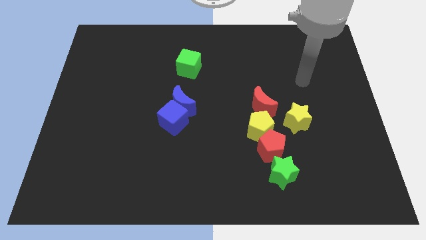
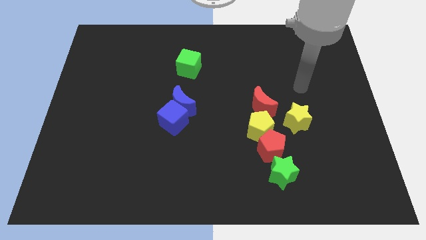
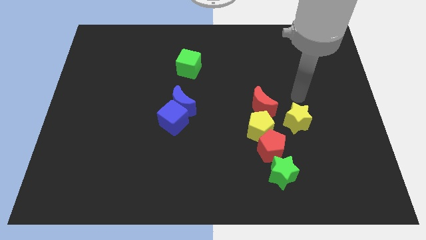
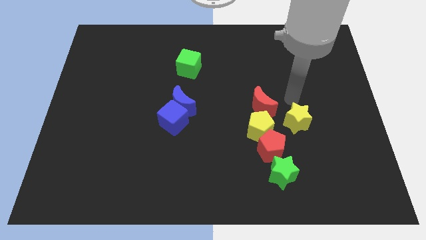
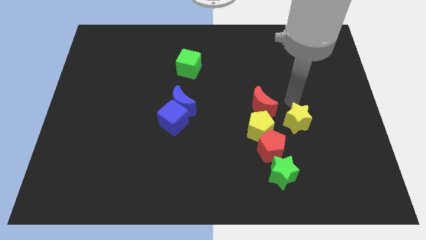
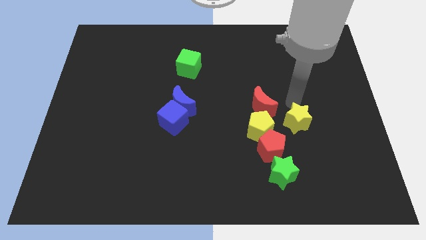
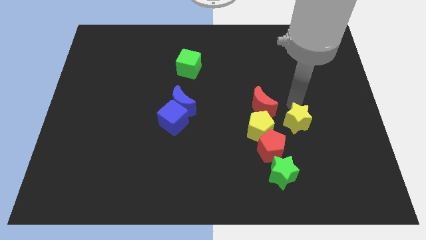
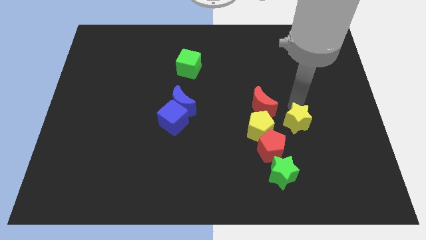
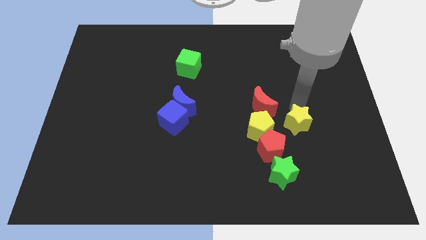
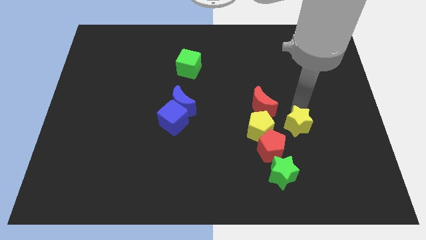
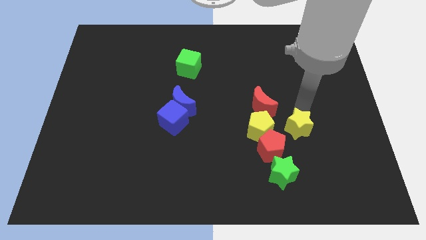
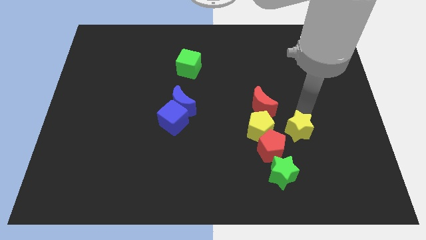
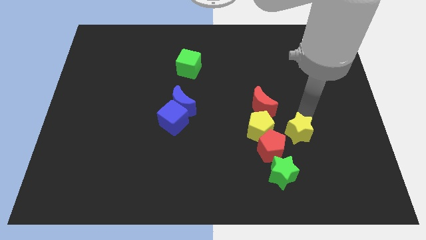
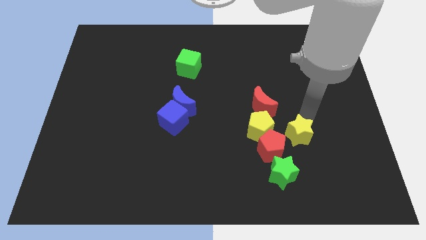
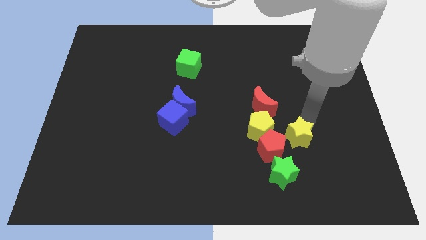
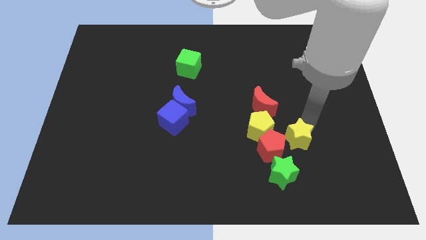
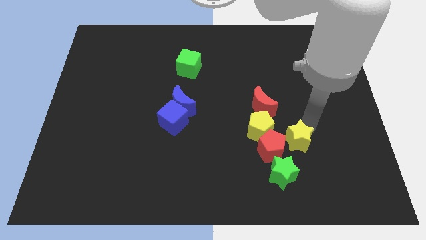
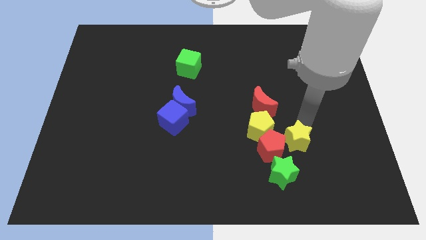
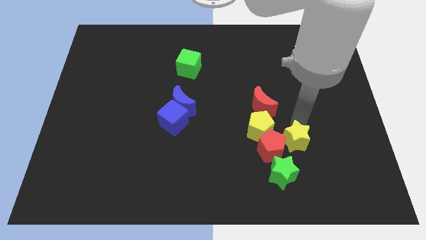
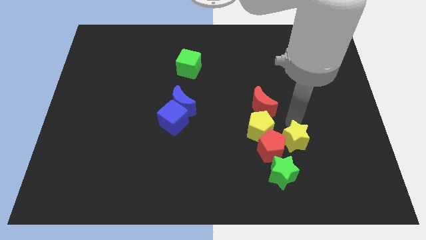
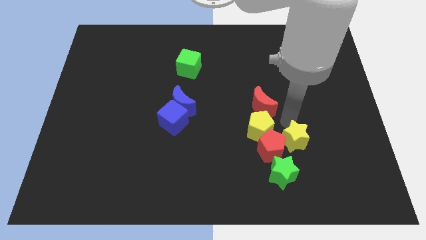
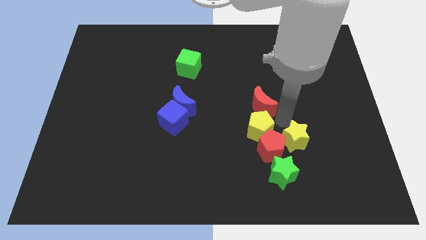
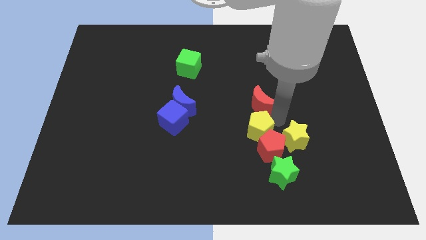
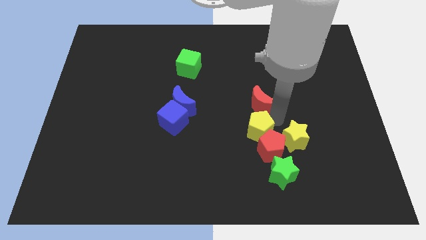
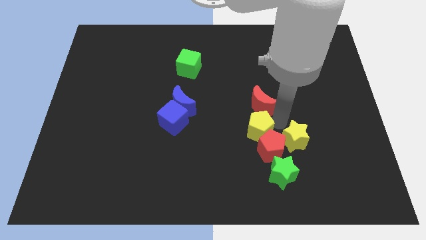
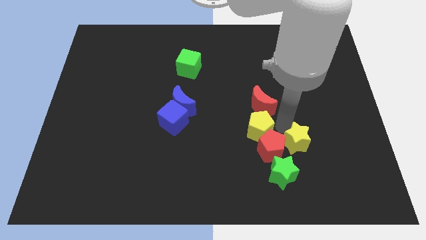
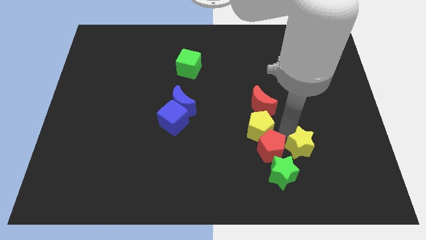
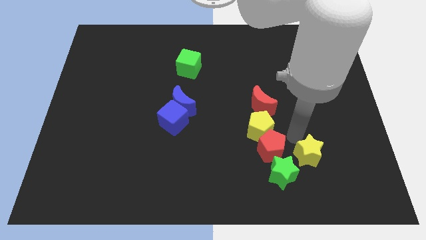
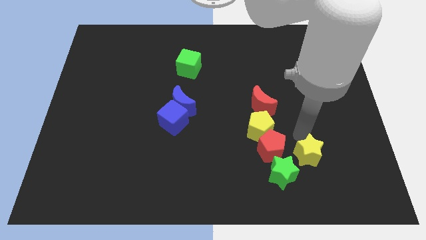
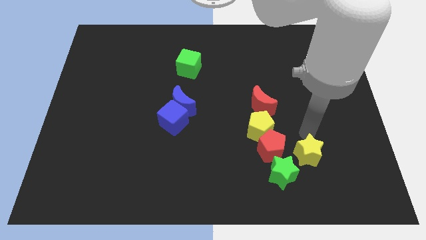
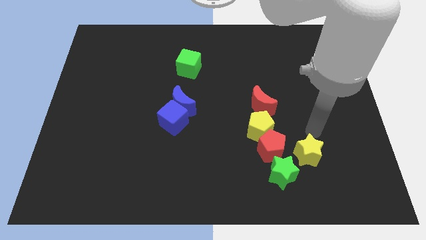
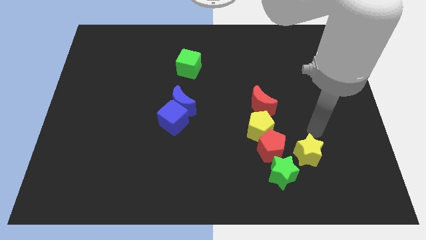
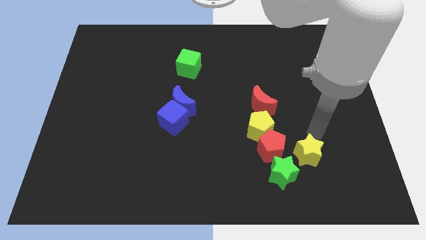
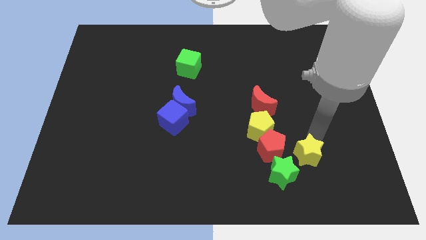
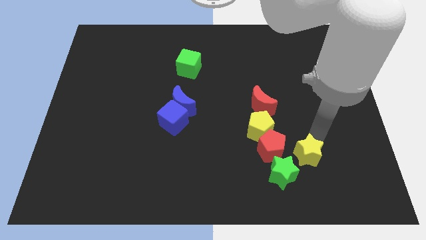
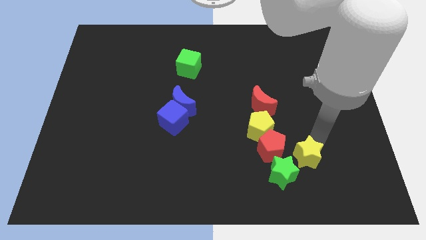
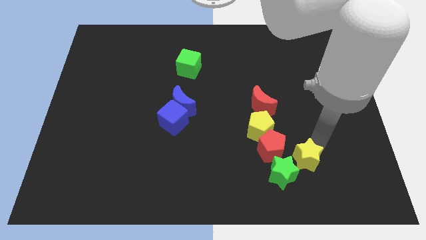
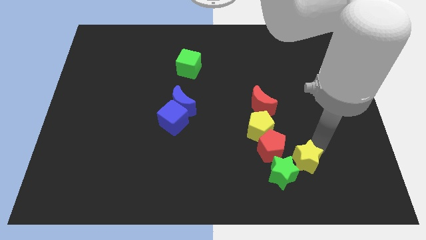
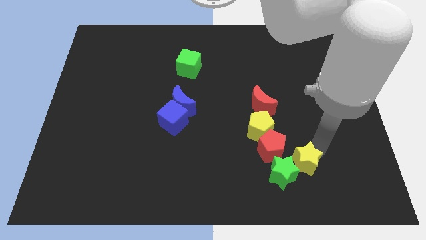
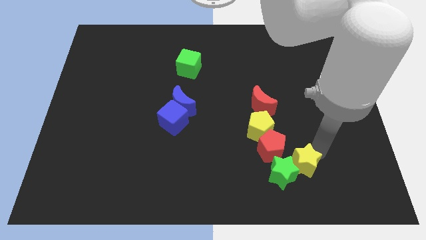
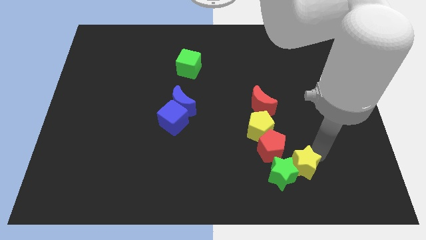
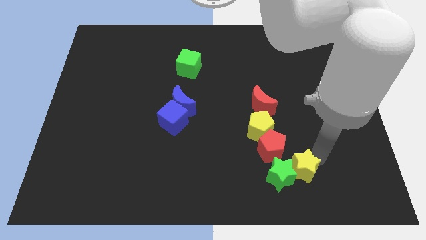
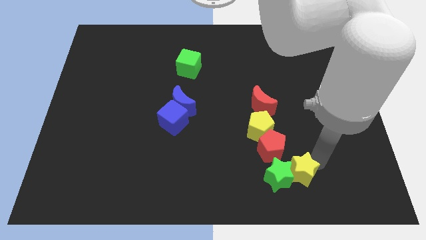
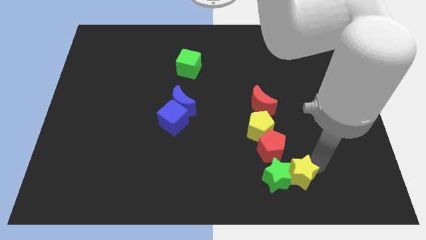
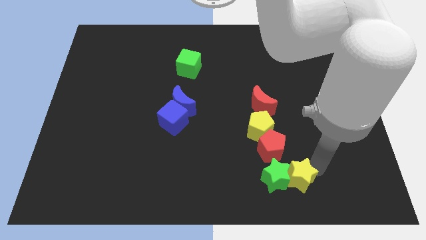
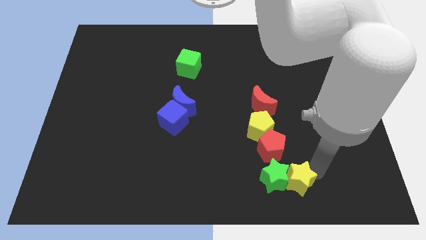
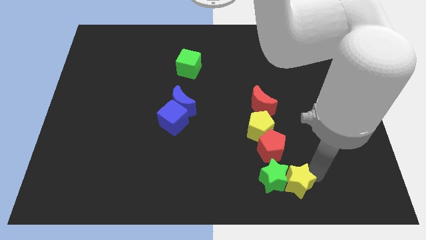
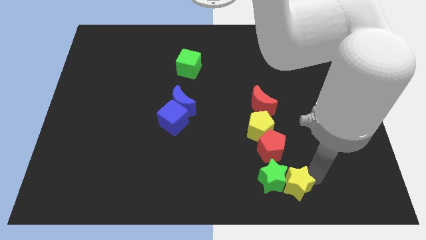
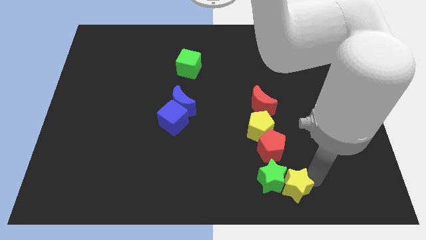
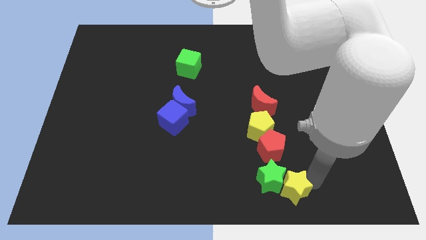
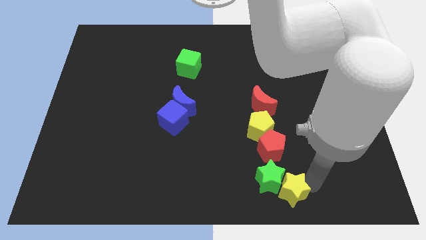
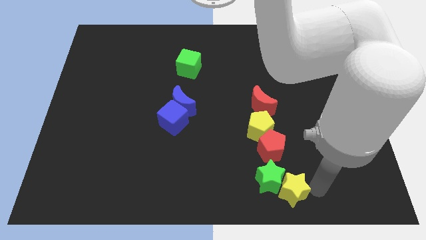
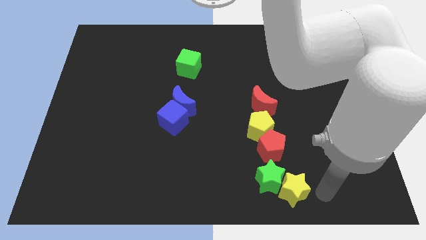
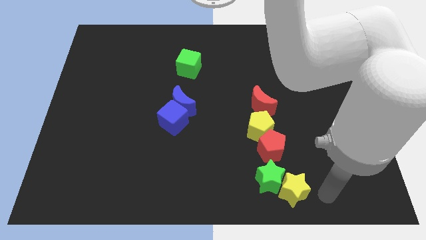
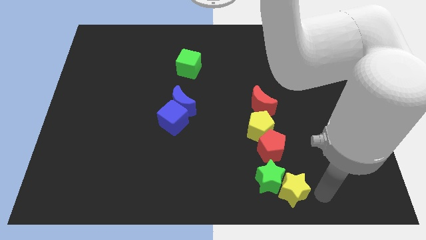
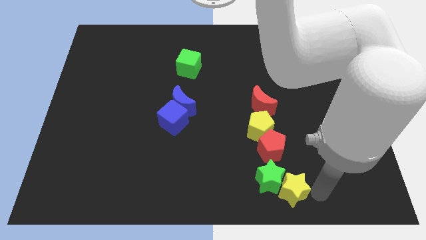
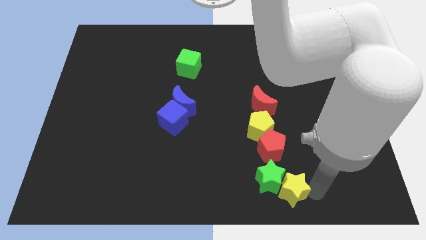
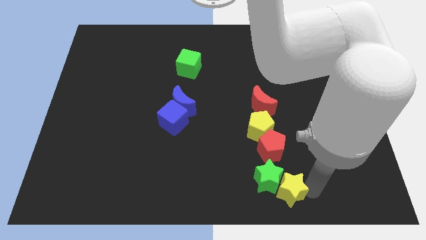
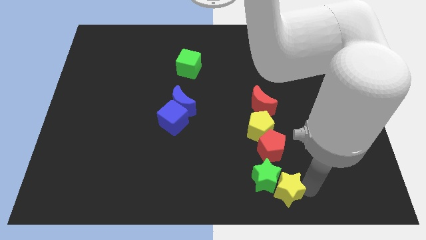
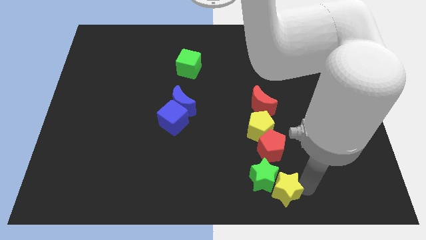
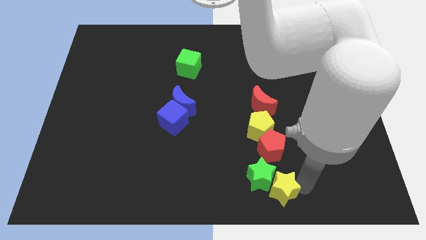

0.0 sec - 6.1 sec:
put the yellow star to the bottom side of the yellow pentagon
